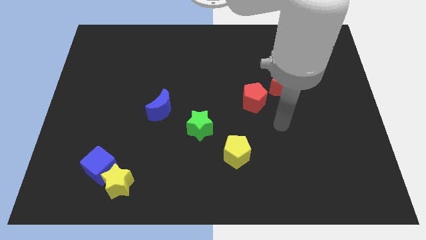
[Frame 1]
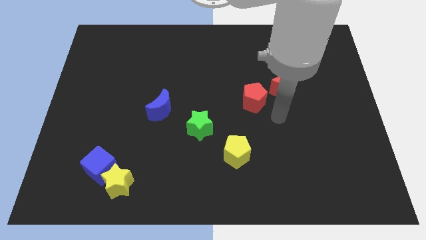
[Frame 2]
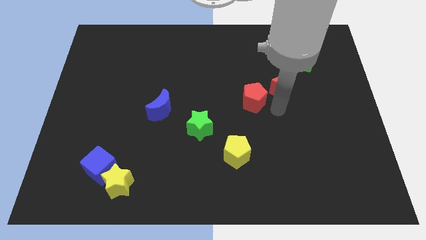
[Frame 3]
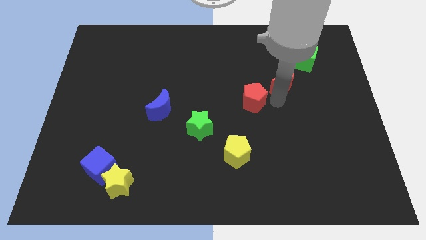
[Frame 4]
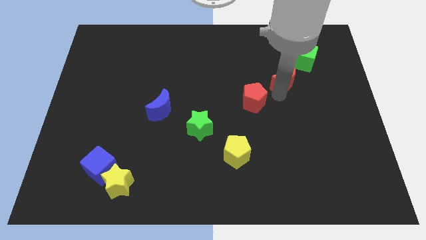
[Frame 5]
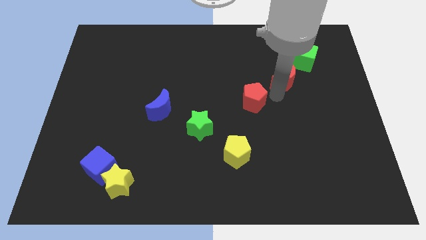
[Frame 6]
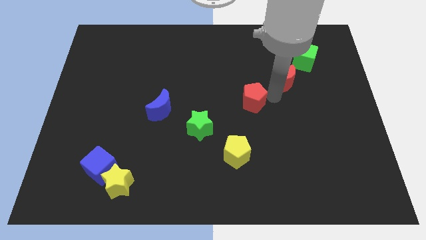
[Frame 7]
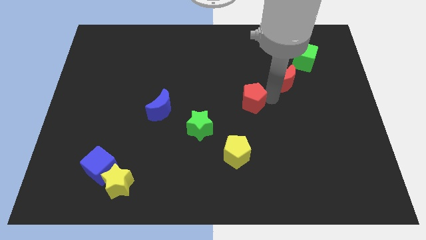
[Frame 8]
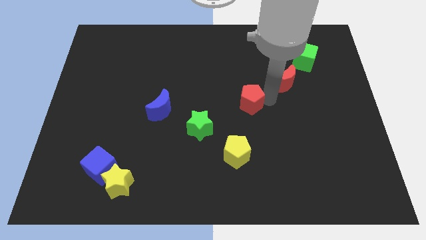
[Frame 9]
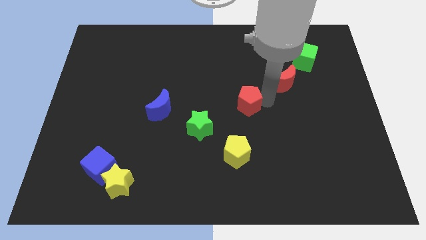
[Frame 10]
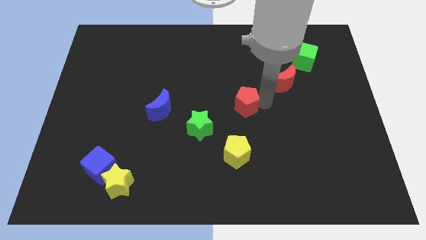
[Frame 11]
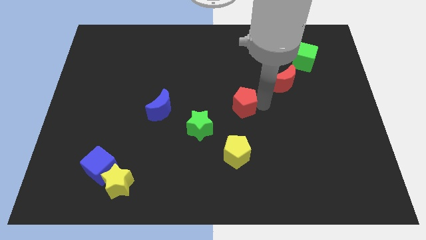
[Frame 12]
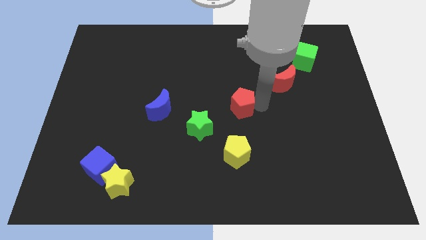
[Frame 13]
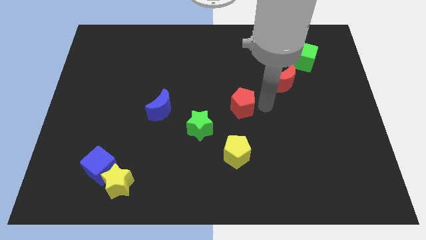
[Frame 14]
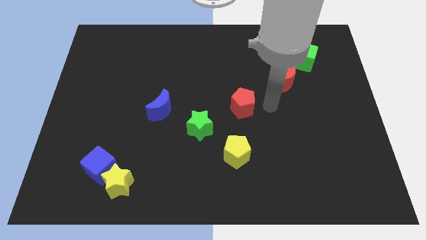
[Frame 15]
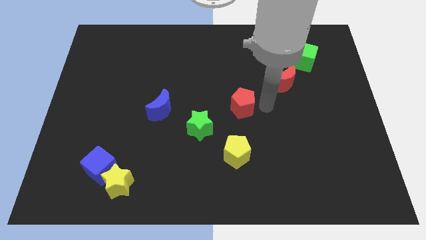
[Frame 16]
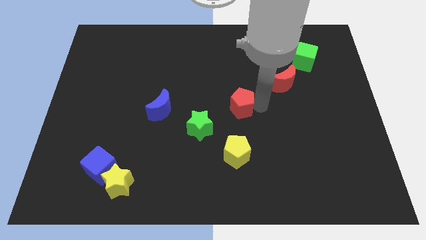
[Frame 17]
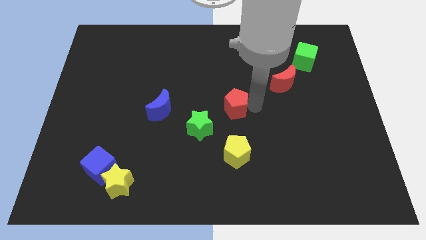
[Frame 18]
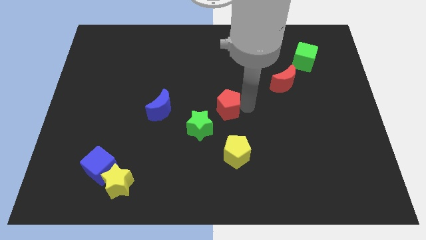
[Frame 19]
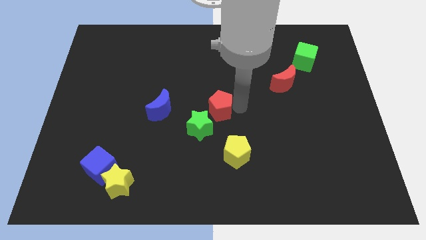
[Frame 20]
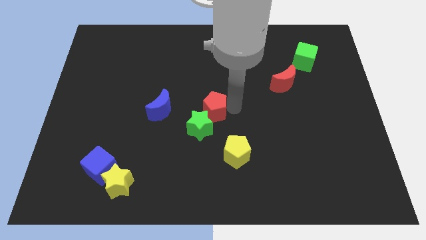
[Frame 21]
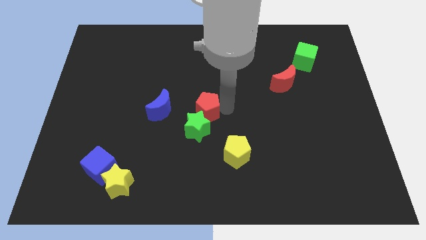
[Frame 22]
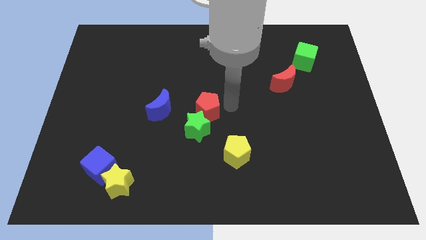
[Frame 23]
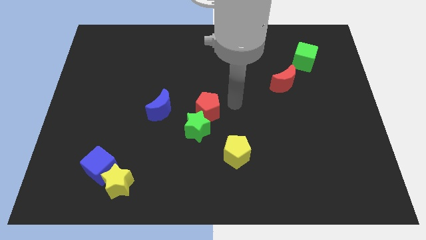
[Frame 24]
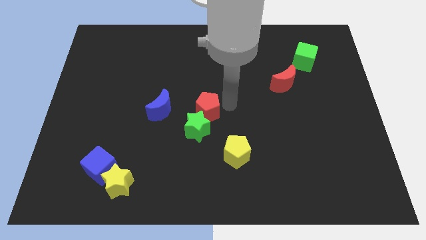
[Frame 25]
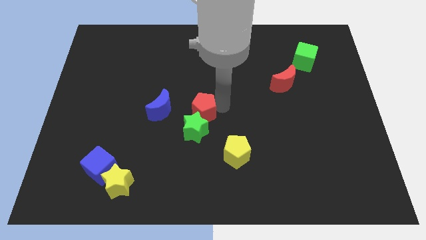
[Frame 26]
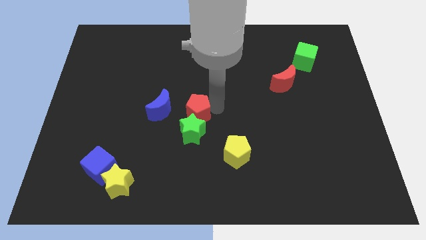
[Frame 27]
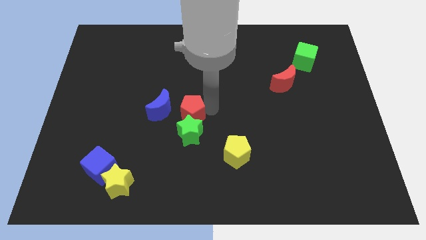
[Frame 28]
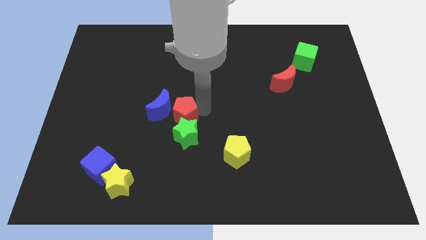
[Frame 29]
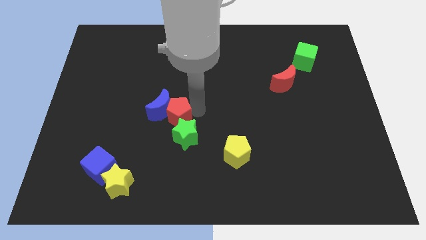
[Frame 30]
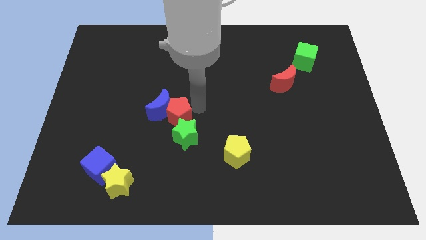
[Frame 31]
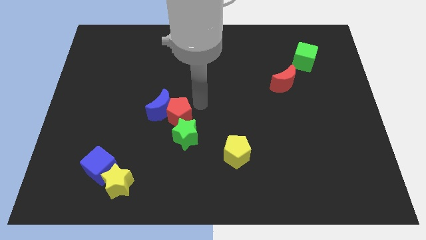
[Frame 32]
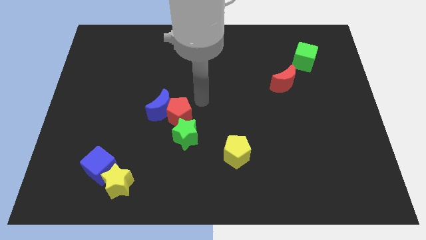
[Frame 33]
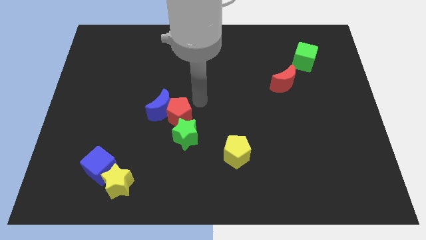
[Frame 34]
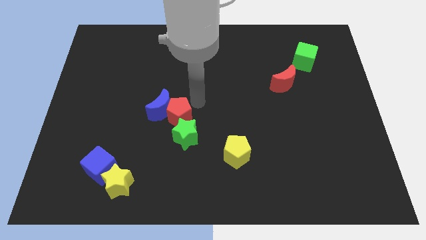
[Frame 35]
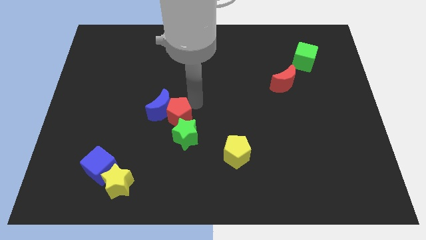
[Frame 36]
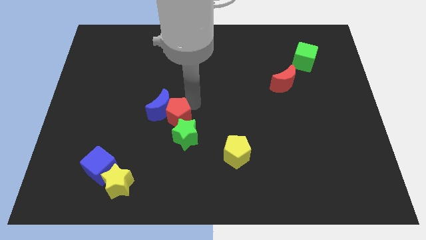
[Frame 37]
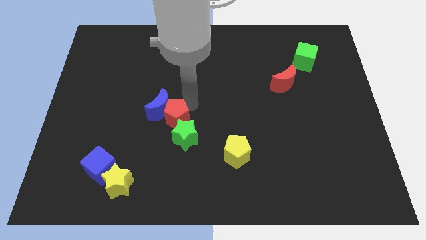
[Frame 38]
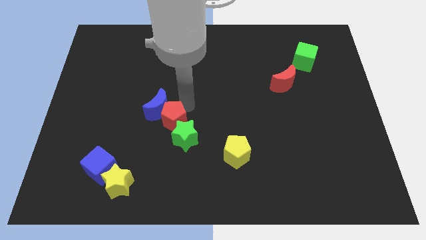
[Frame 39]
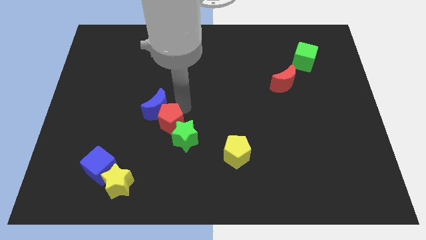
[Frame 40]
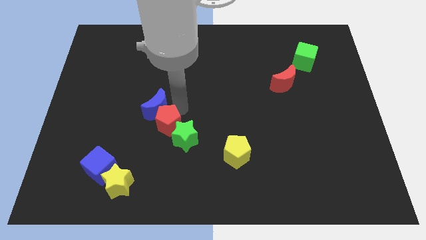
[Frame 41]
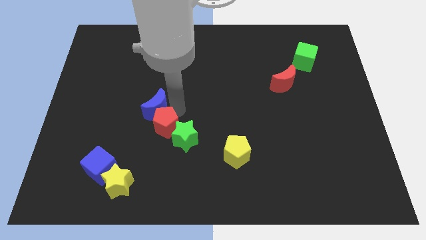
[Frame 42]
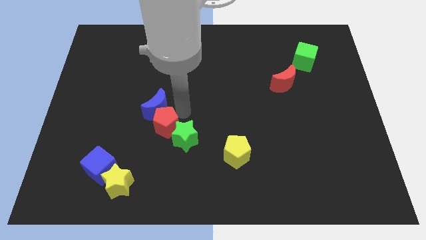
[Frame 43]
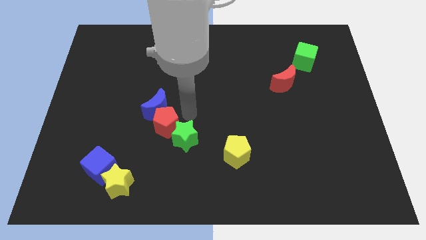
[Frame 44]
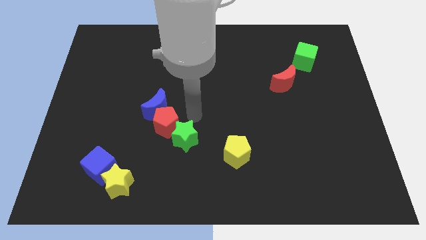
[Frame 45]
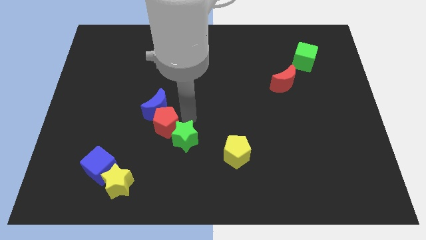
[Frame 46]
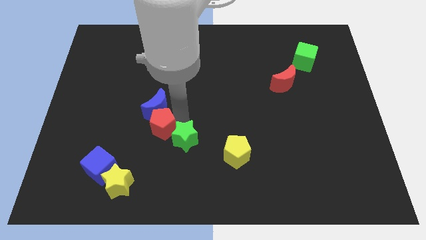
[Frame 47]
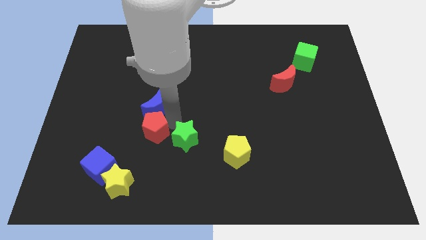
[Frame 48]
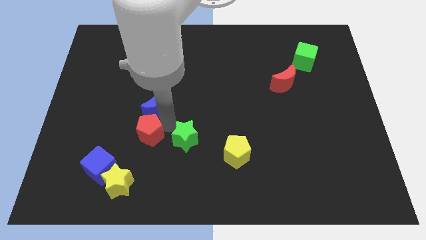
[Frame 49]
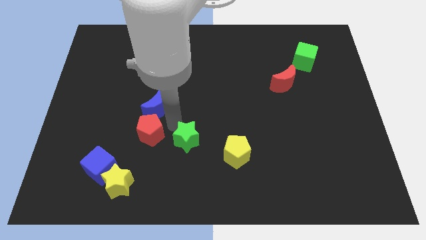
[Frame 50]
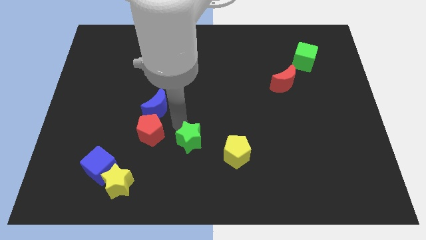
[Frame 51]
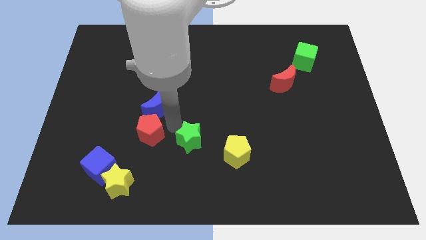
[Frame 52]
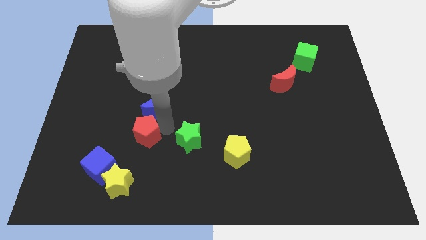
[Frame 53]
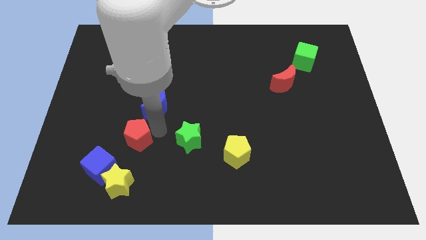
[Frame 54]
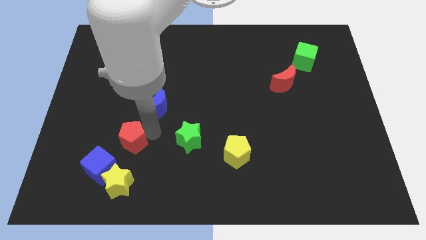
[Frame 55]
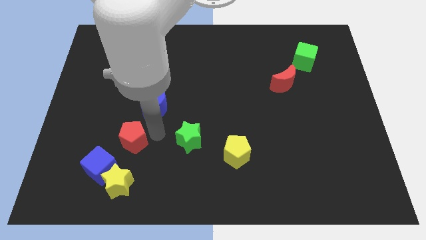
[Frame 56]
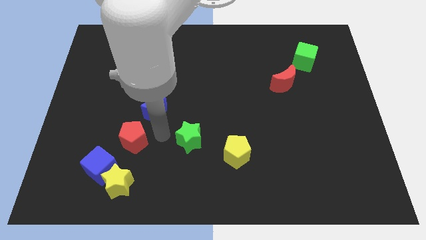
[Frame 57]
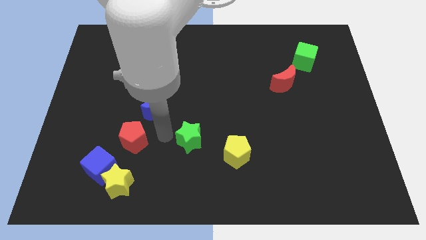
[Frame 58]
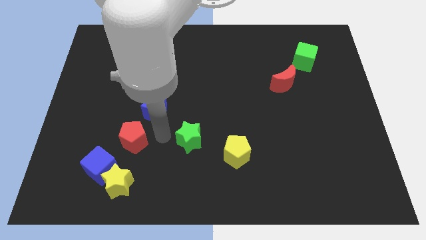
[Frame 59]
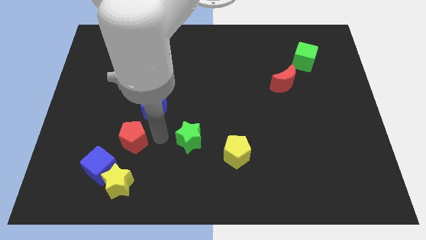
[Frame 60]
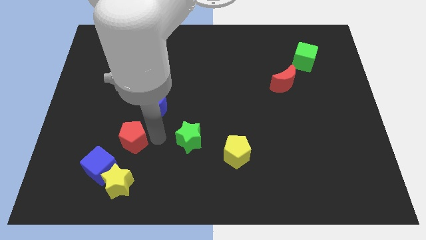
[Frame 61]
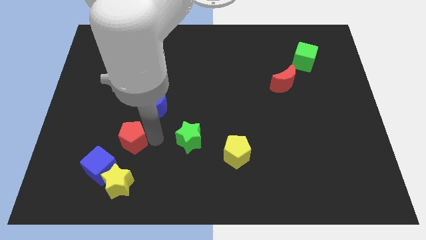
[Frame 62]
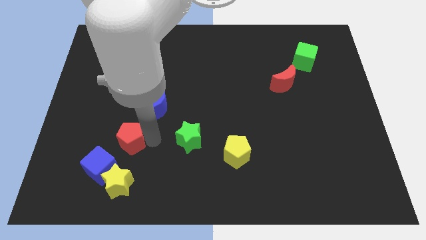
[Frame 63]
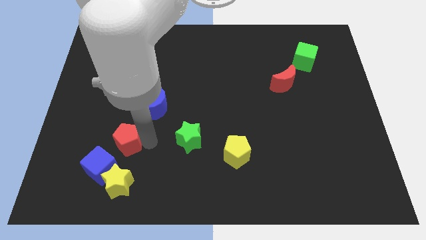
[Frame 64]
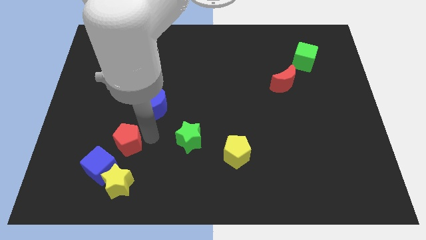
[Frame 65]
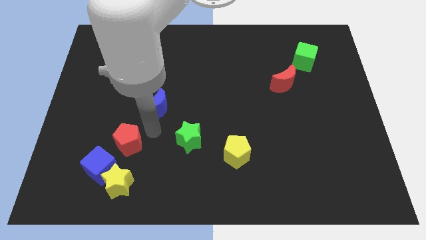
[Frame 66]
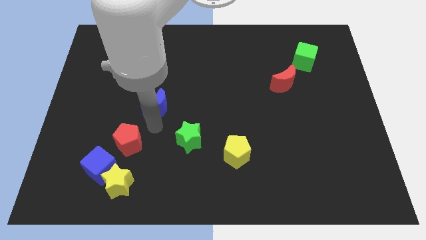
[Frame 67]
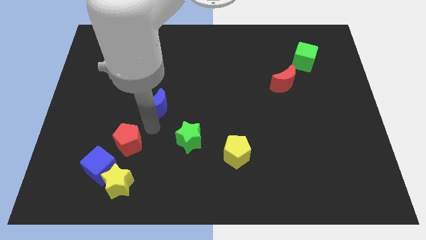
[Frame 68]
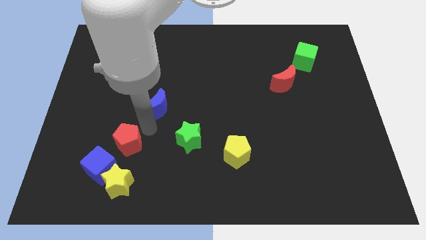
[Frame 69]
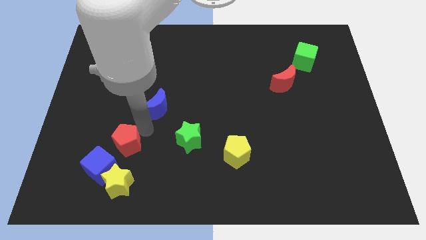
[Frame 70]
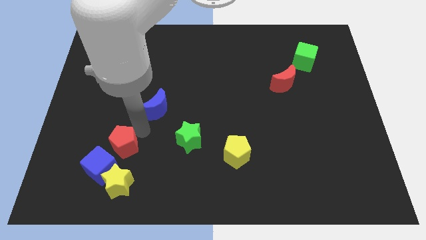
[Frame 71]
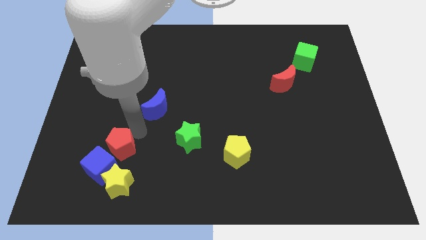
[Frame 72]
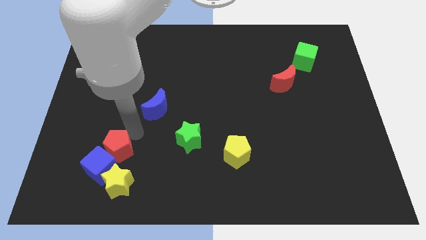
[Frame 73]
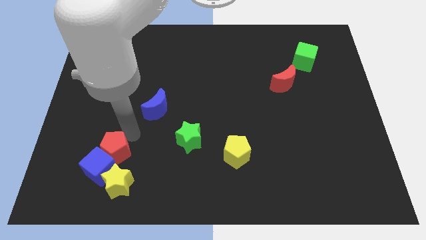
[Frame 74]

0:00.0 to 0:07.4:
push the red pentagon to the top left of the yellow star
